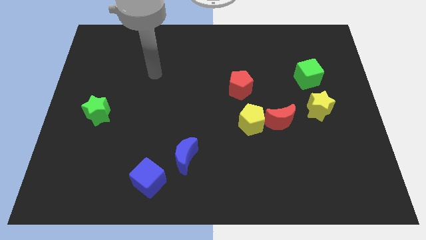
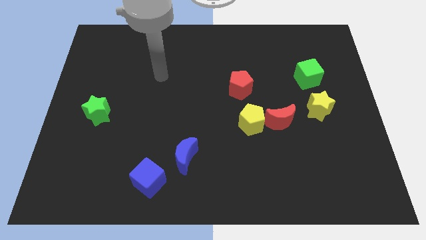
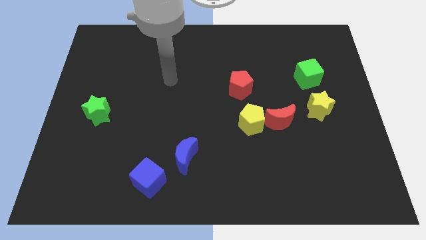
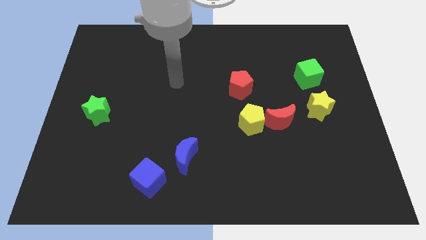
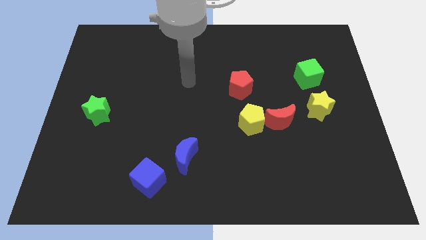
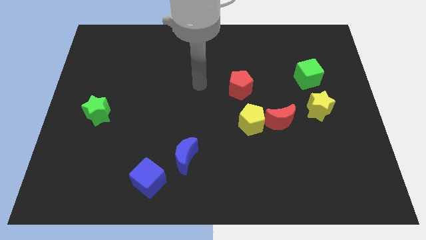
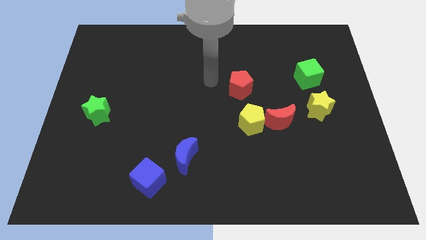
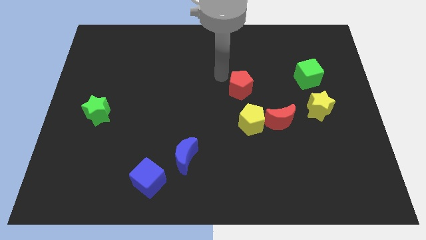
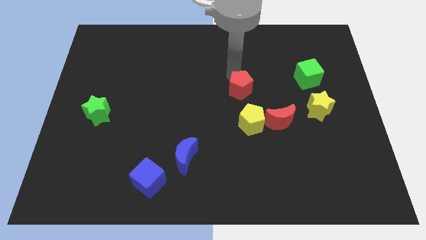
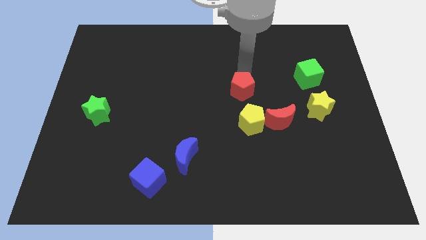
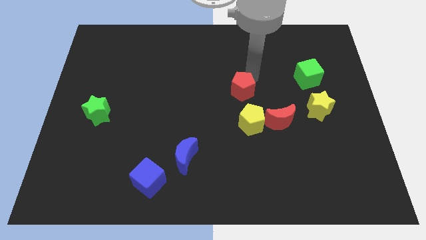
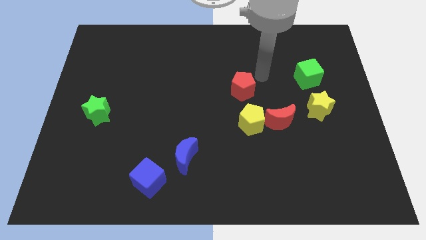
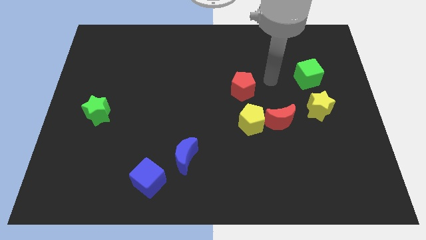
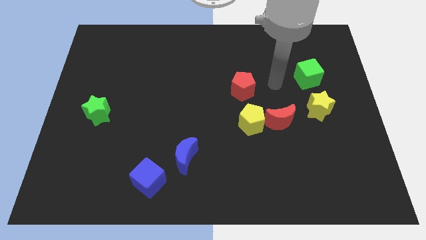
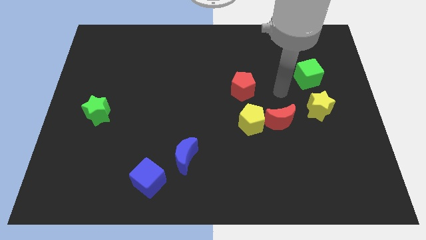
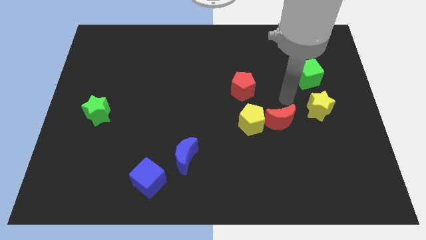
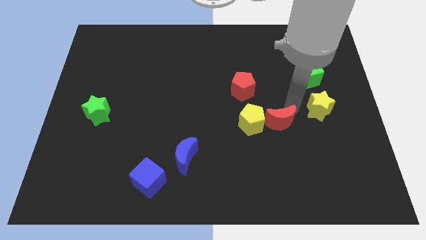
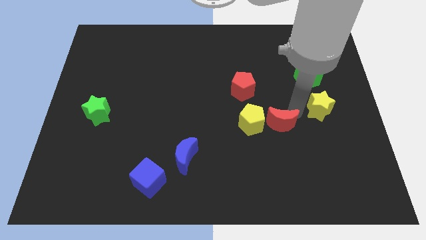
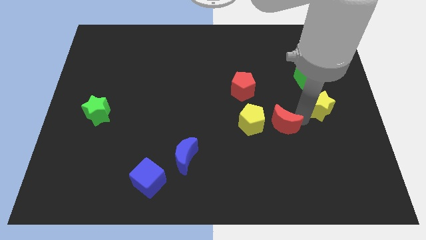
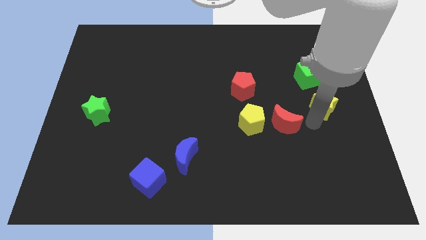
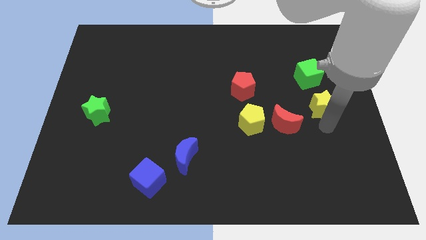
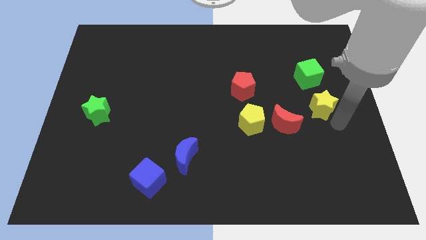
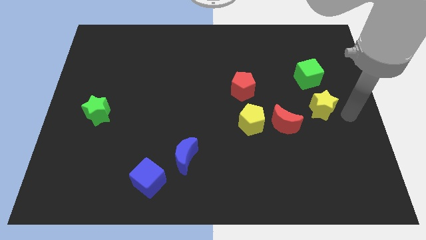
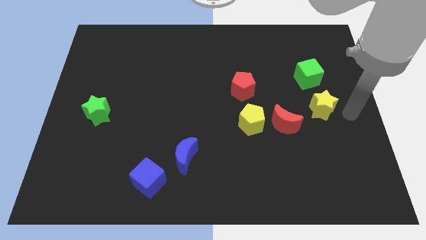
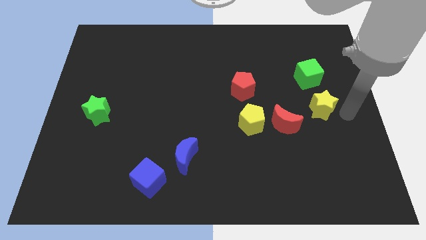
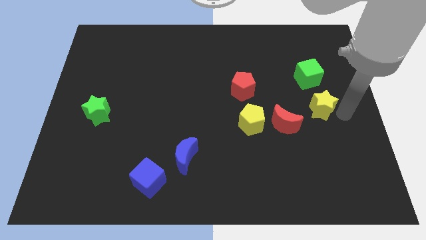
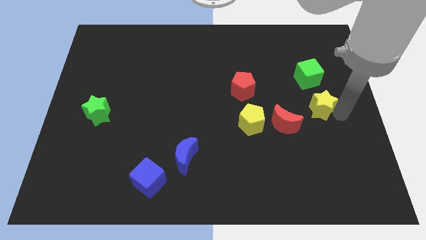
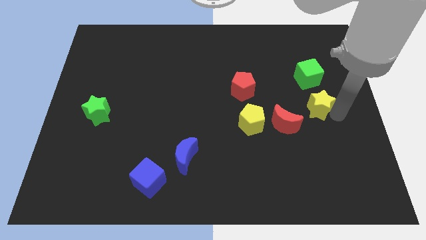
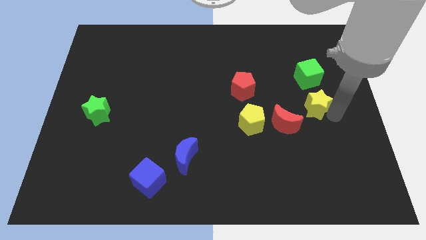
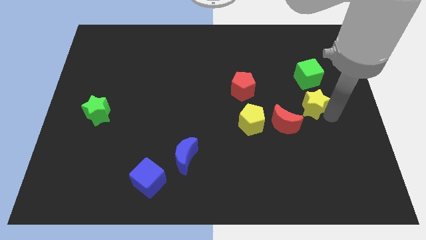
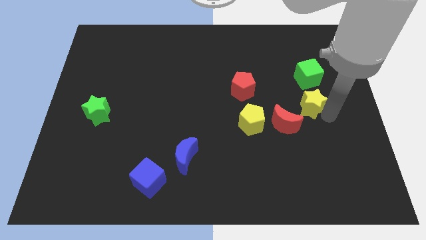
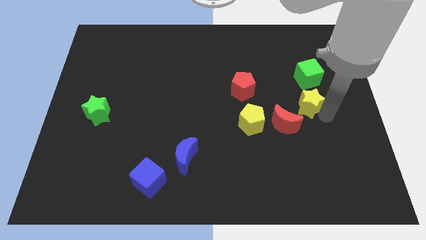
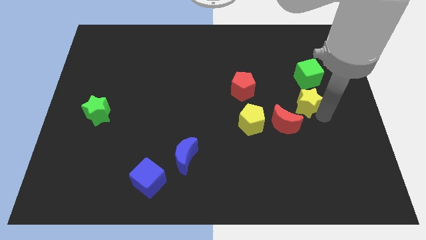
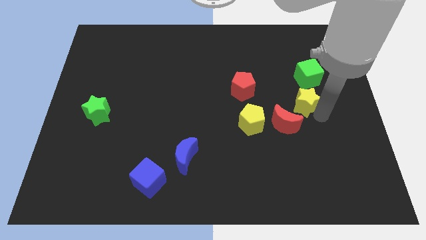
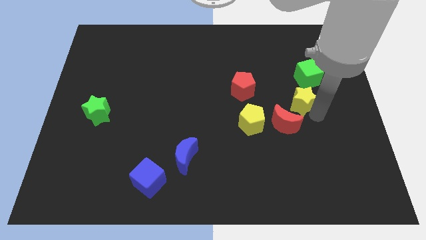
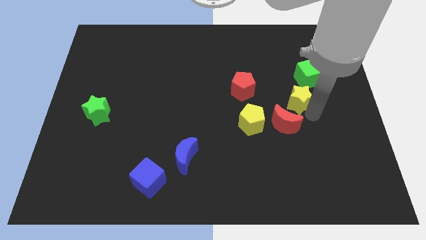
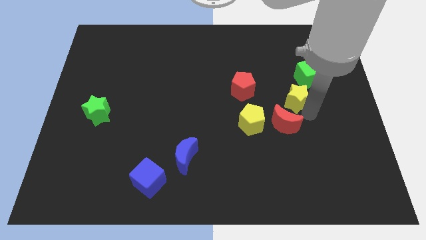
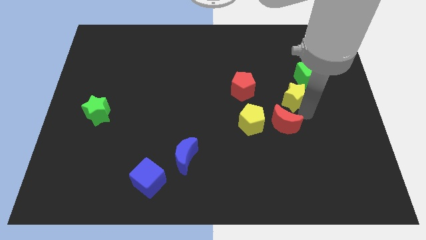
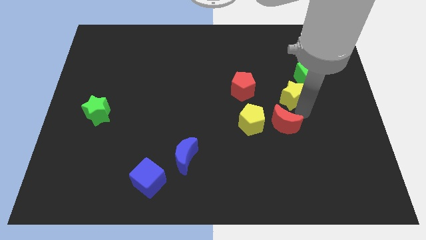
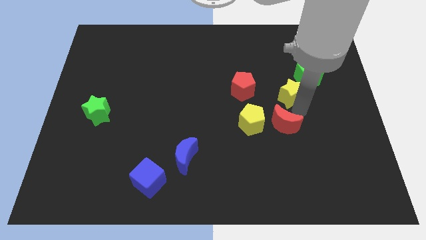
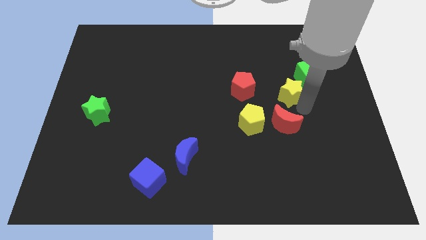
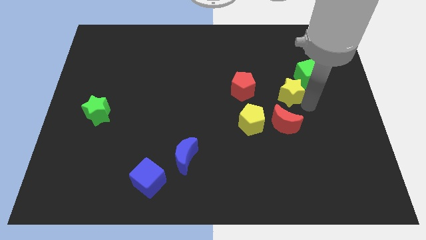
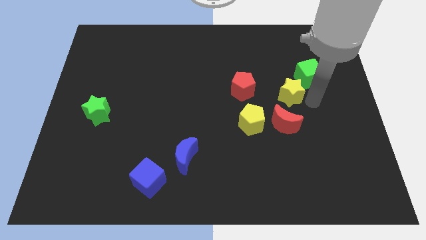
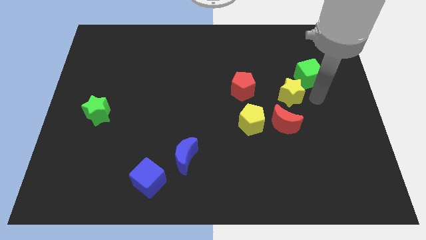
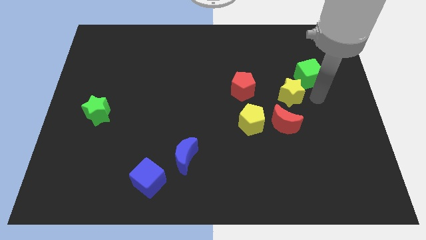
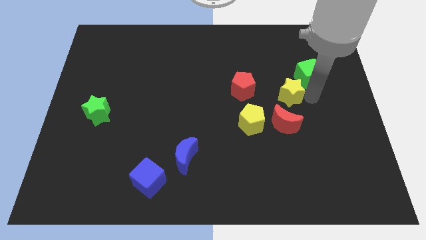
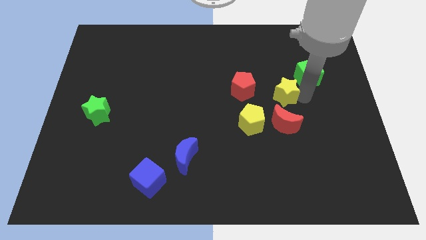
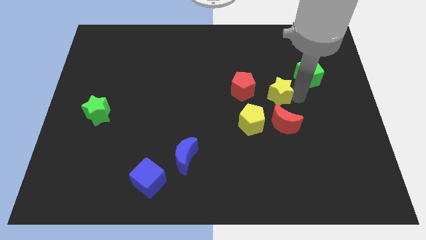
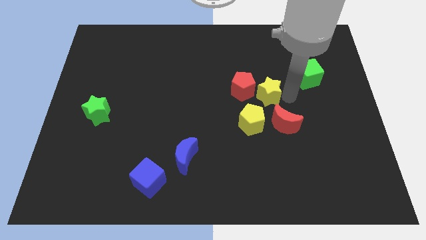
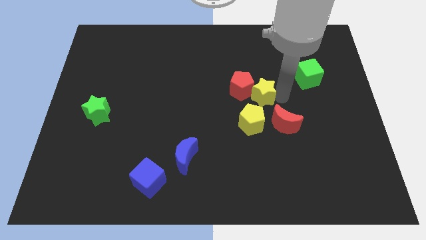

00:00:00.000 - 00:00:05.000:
push the yellow star towards the red pentagon

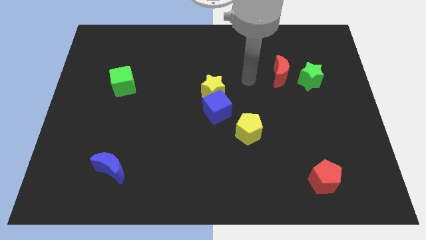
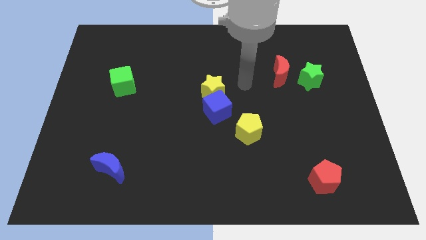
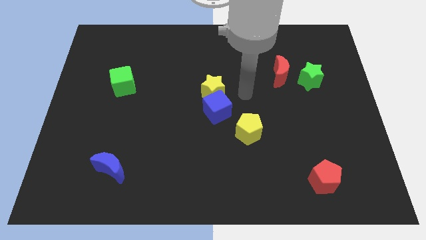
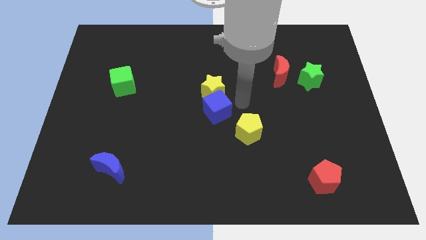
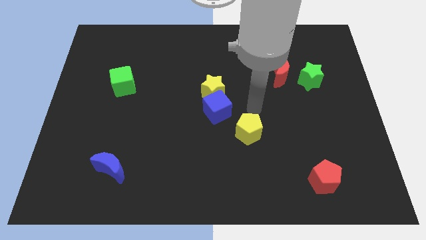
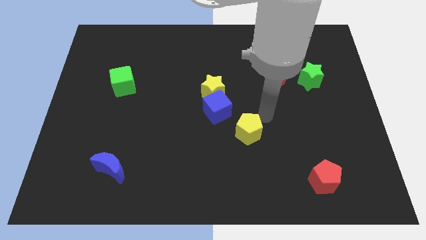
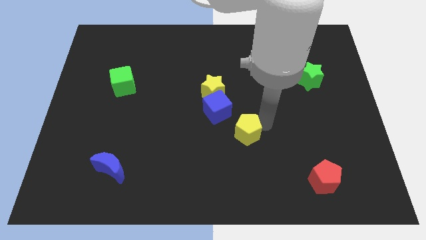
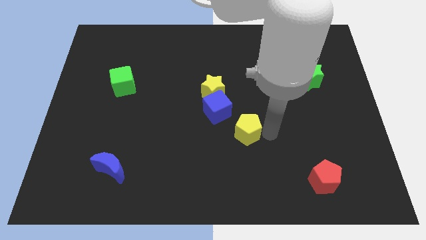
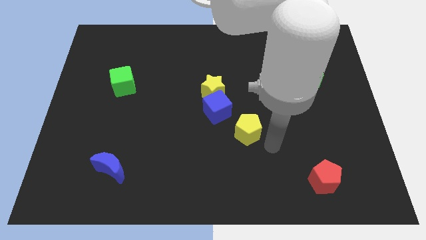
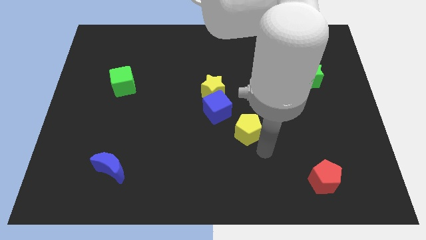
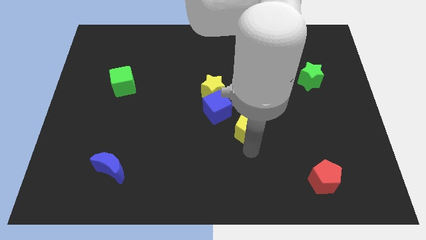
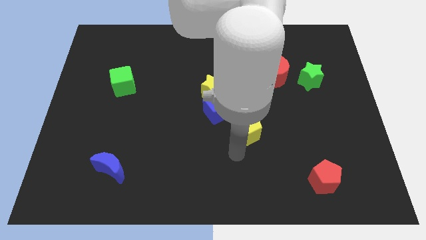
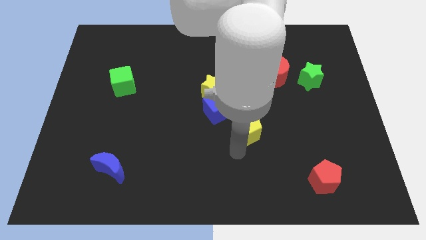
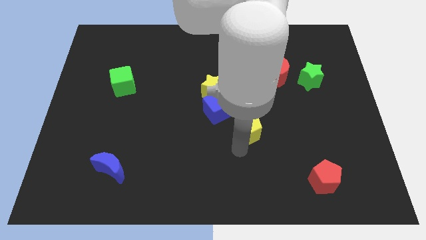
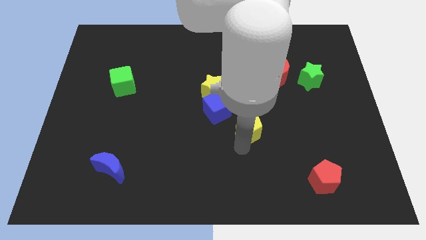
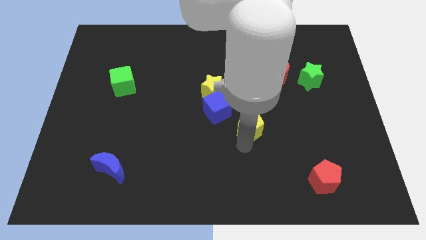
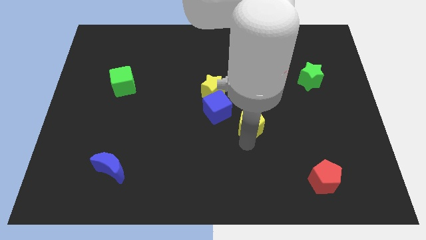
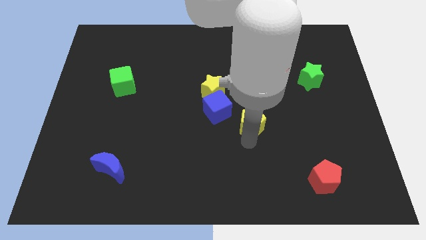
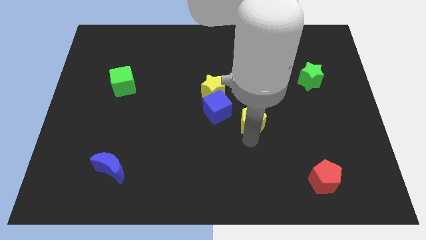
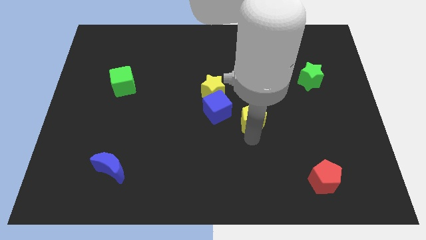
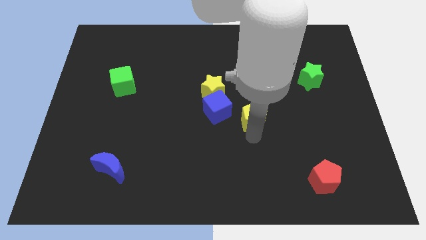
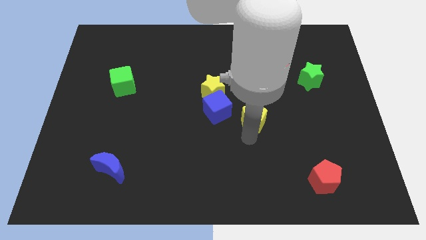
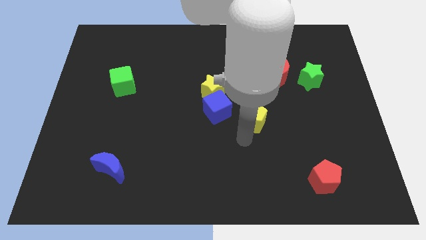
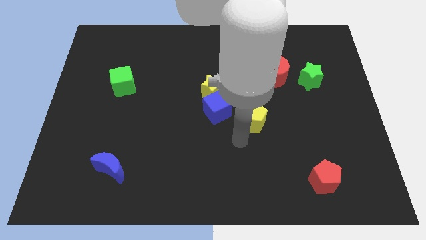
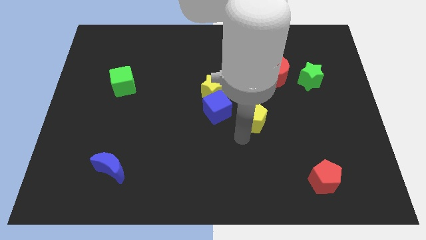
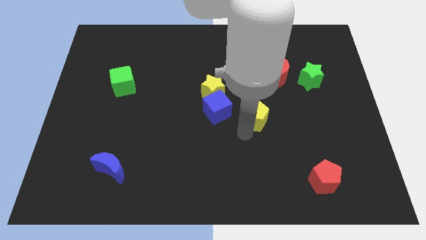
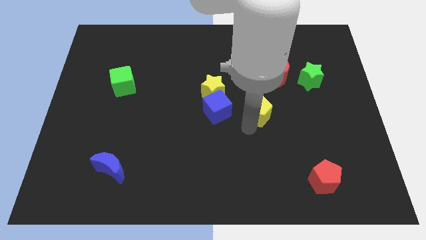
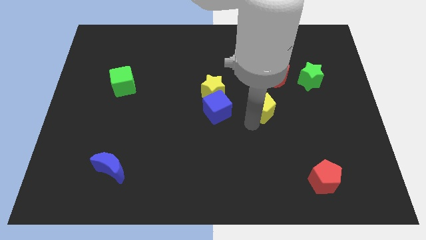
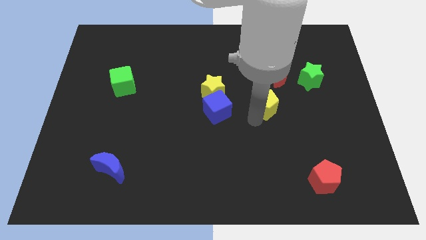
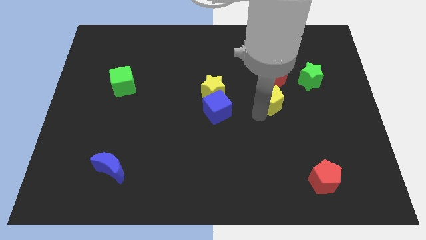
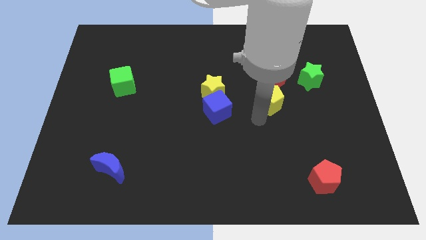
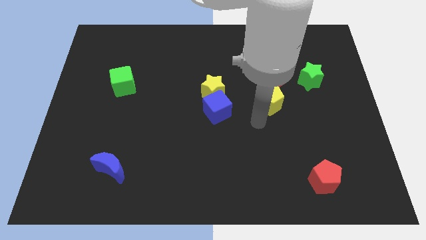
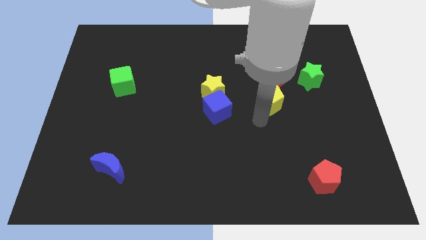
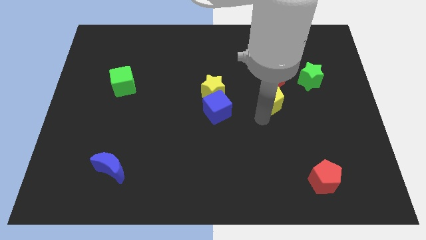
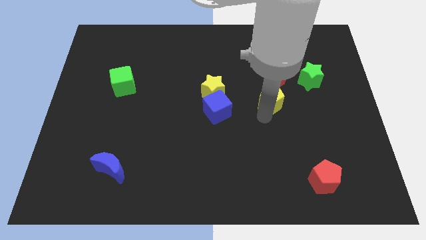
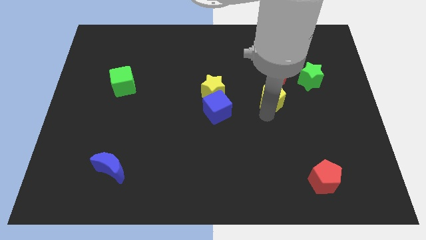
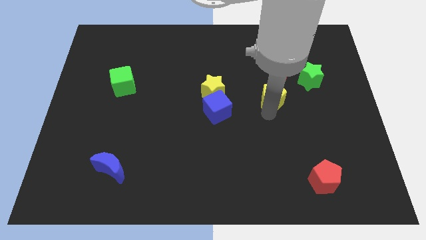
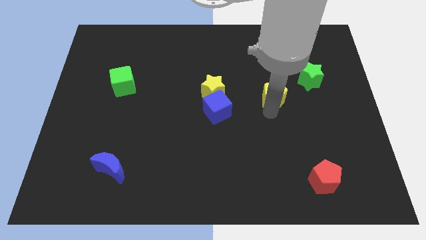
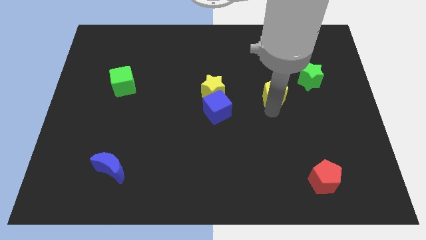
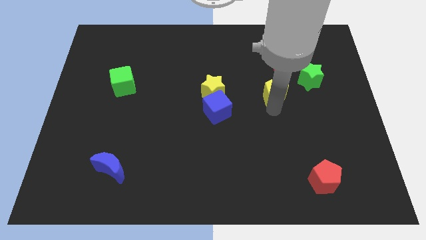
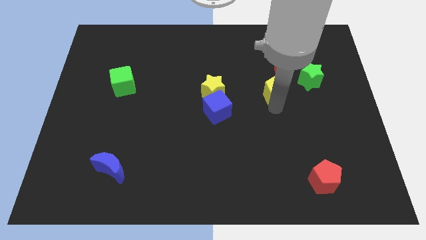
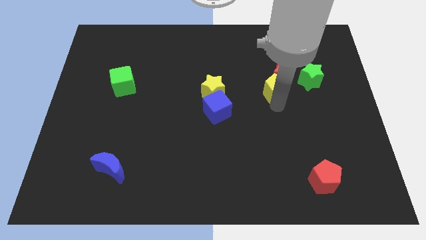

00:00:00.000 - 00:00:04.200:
put the yellow pentagon to the red moon
